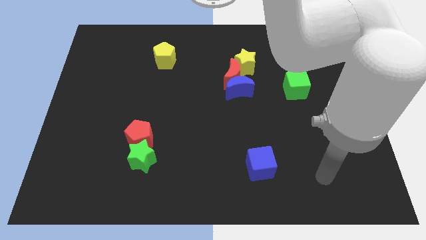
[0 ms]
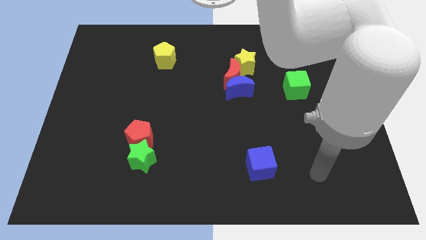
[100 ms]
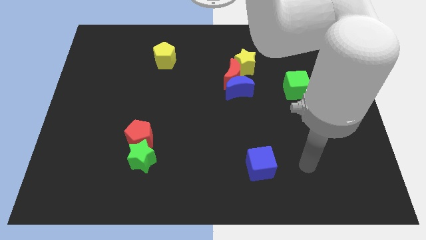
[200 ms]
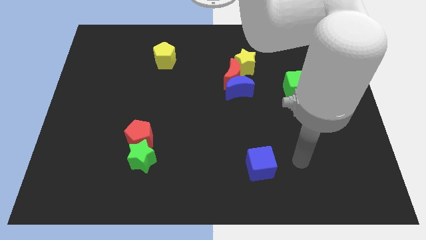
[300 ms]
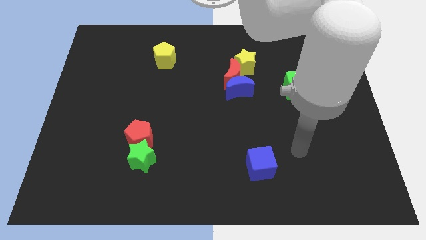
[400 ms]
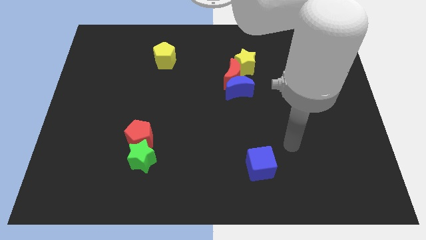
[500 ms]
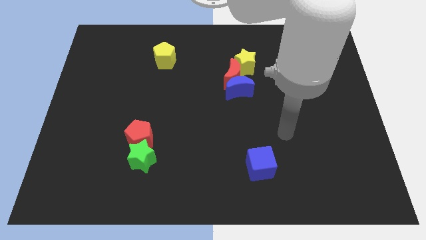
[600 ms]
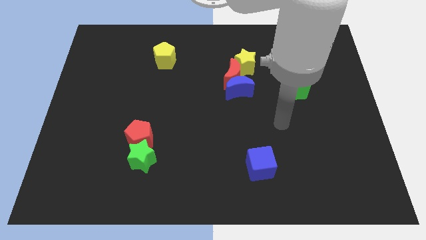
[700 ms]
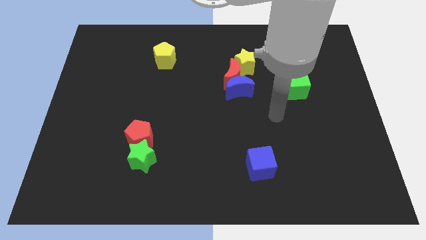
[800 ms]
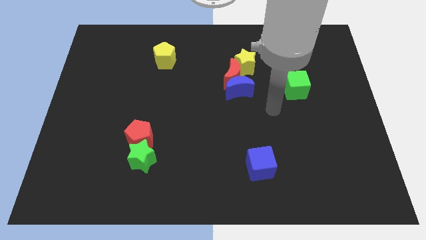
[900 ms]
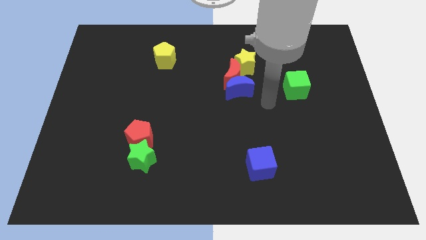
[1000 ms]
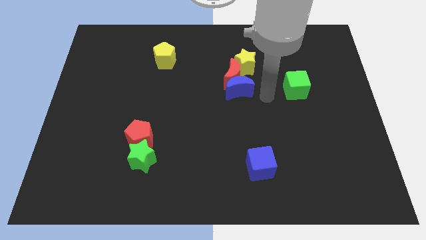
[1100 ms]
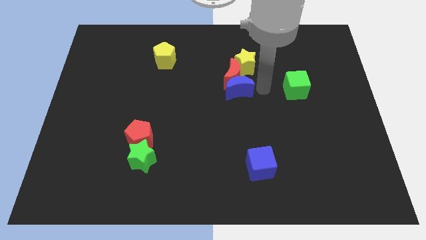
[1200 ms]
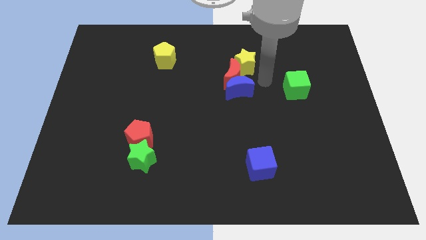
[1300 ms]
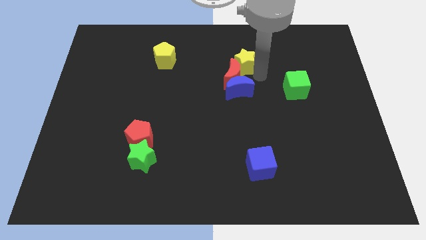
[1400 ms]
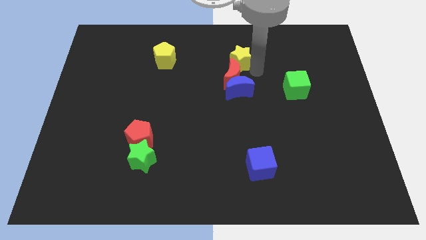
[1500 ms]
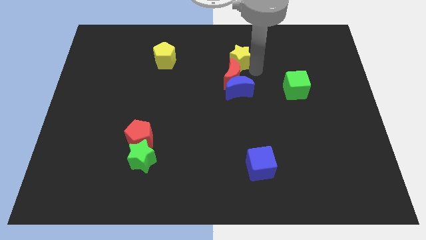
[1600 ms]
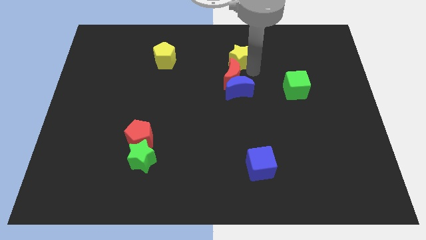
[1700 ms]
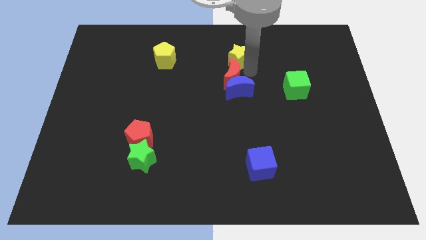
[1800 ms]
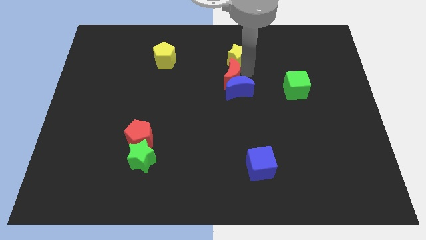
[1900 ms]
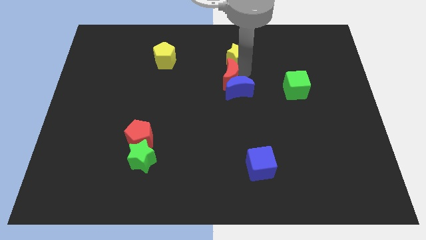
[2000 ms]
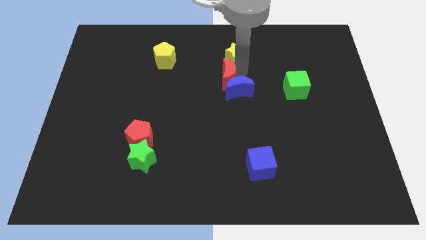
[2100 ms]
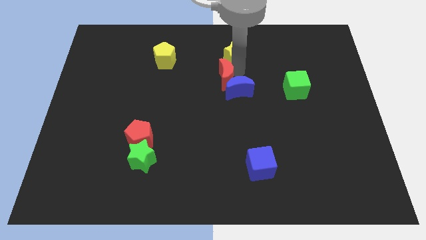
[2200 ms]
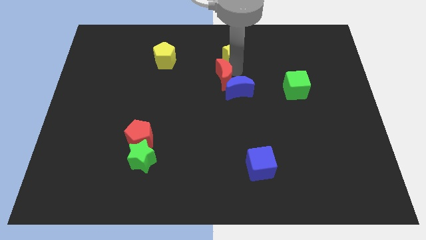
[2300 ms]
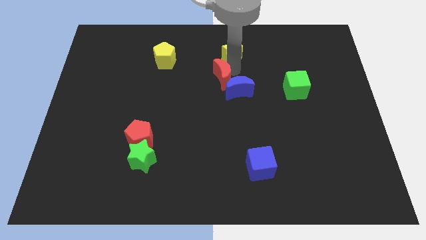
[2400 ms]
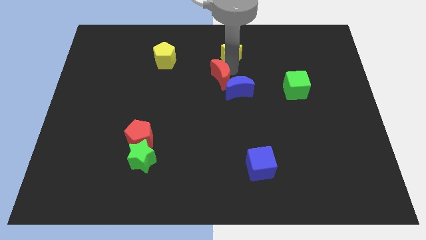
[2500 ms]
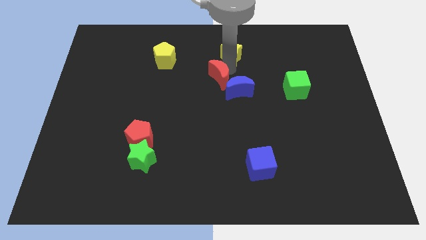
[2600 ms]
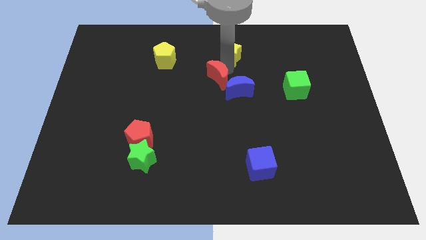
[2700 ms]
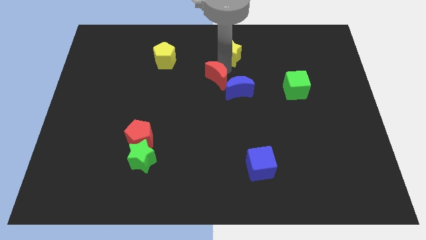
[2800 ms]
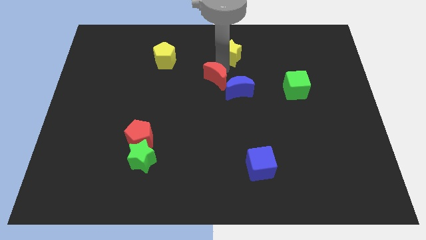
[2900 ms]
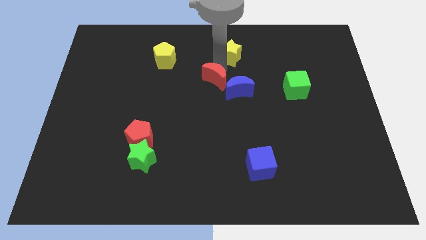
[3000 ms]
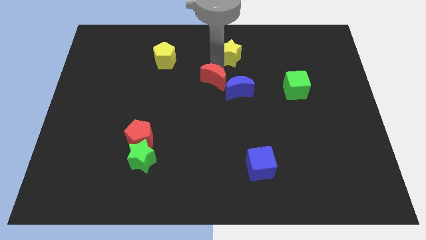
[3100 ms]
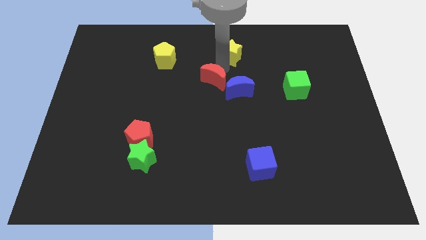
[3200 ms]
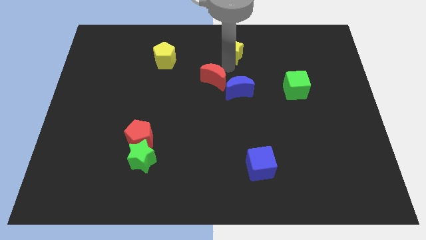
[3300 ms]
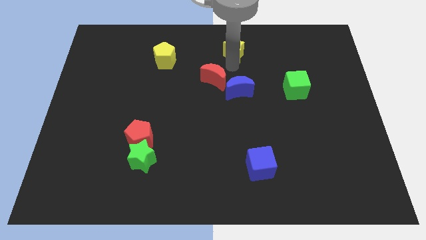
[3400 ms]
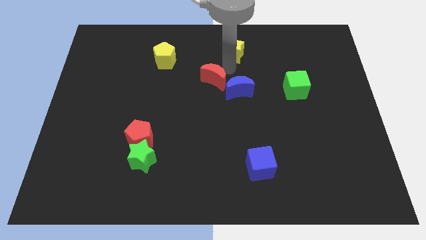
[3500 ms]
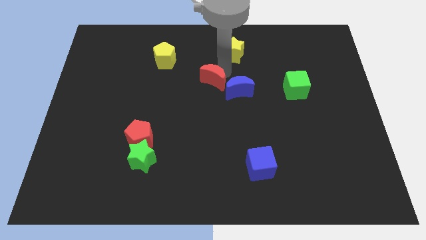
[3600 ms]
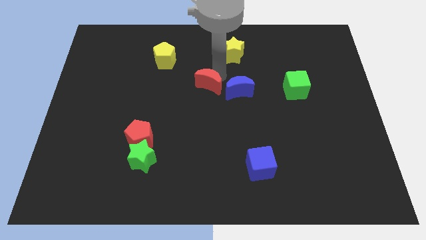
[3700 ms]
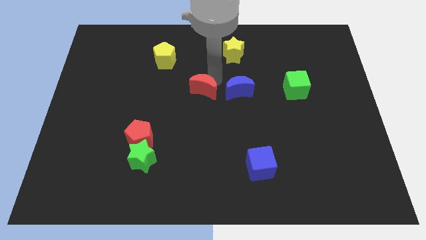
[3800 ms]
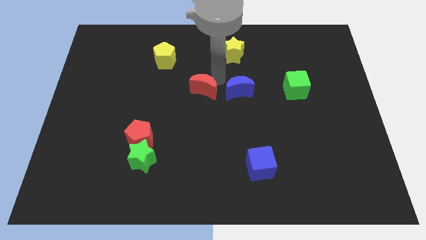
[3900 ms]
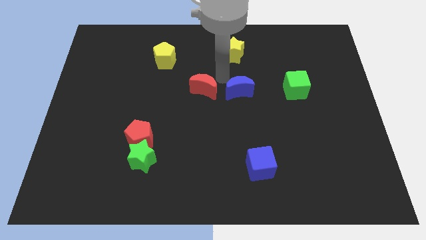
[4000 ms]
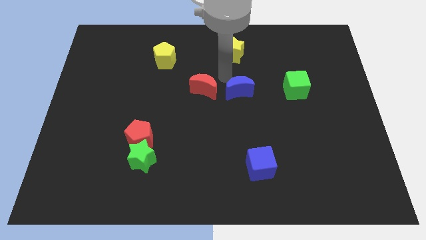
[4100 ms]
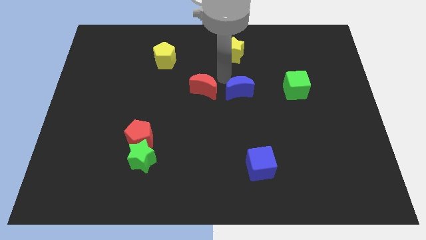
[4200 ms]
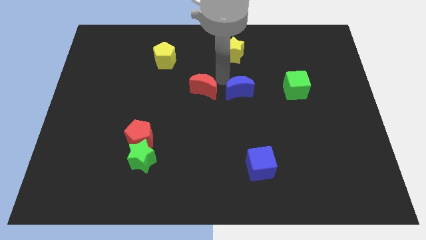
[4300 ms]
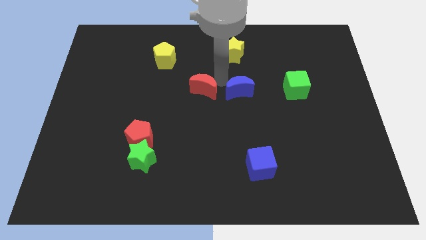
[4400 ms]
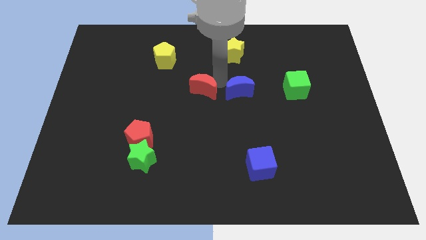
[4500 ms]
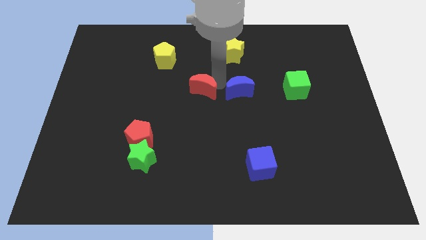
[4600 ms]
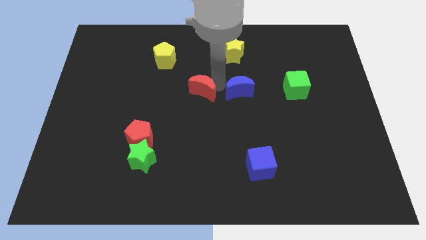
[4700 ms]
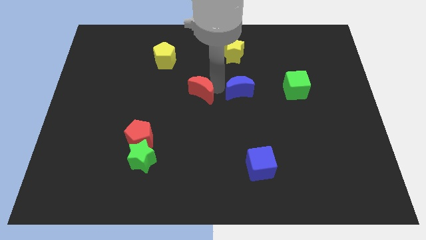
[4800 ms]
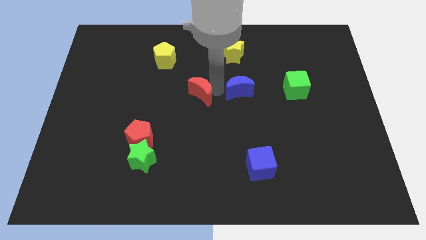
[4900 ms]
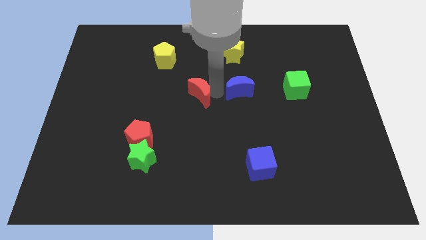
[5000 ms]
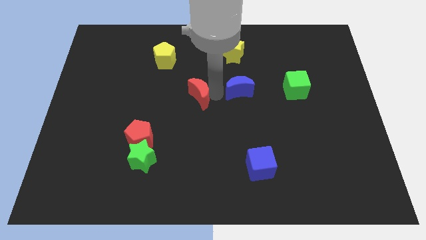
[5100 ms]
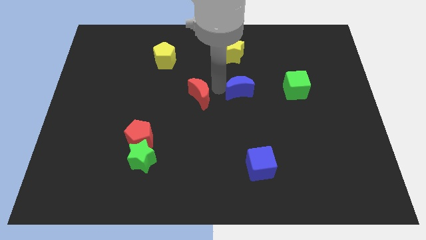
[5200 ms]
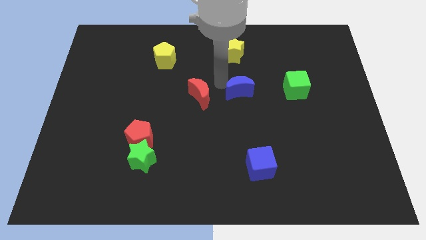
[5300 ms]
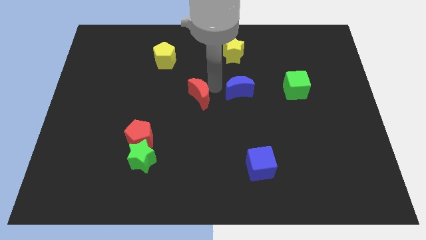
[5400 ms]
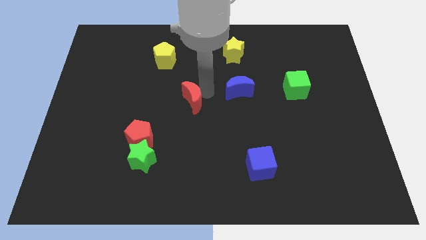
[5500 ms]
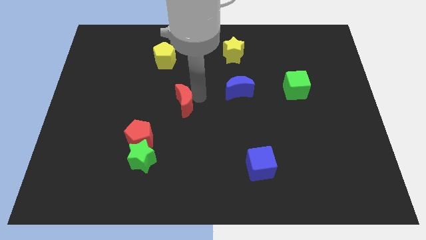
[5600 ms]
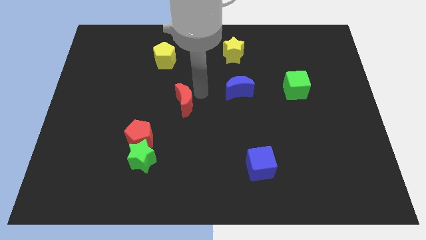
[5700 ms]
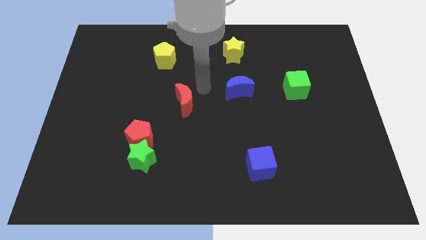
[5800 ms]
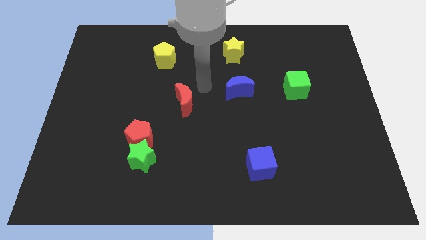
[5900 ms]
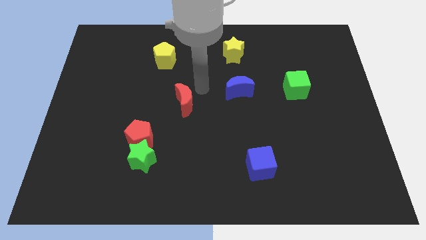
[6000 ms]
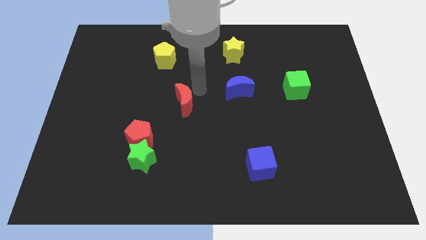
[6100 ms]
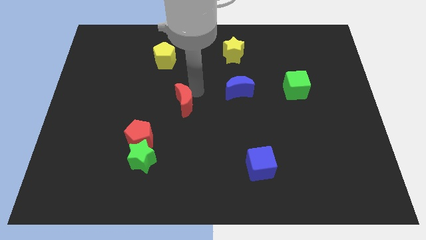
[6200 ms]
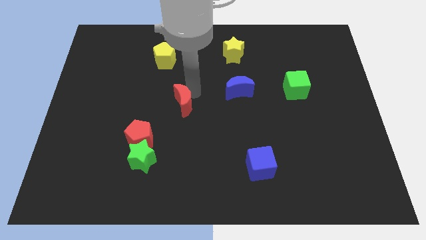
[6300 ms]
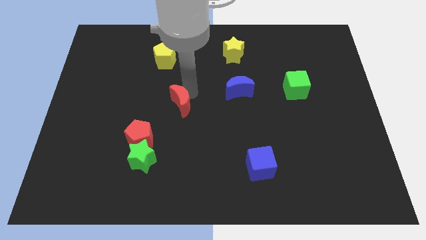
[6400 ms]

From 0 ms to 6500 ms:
slide the red moon to the top right of the red pentagon

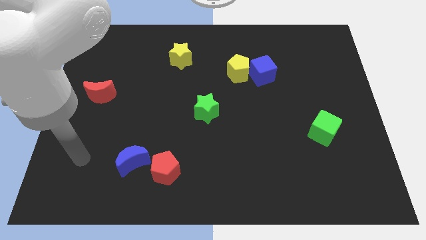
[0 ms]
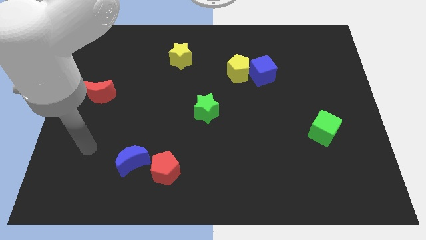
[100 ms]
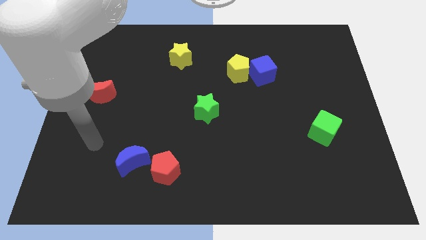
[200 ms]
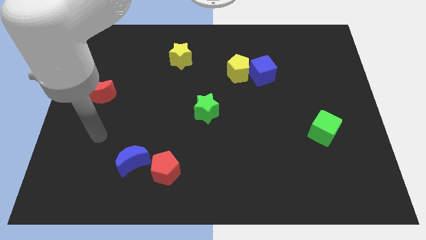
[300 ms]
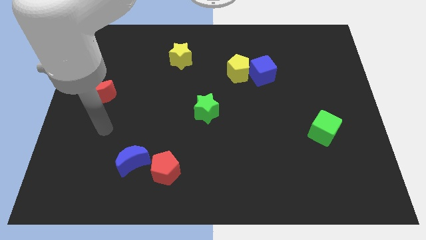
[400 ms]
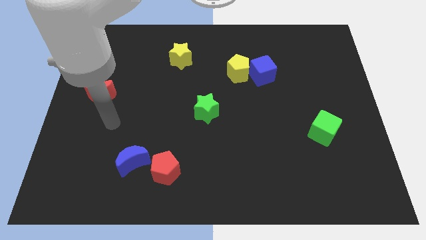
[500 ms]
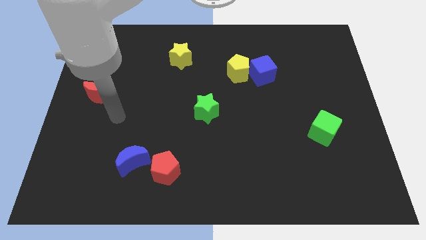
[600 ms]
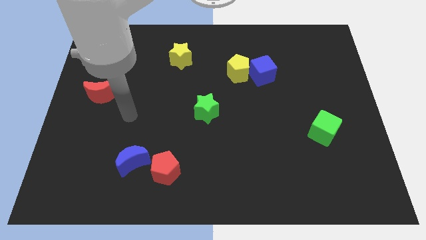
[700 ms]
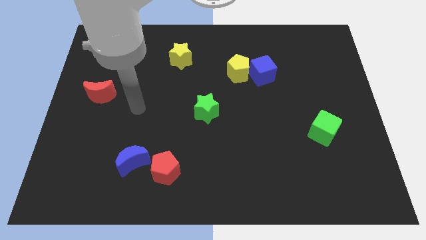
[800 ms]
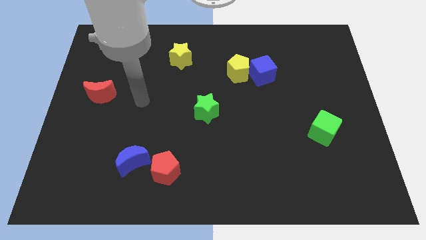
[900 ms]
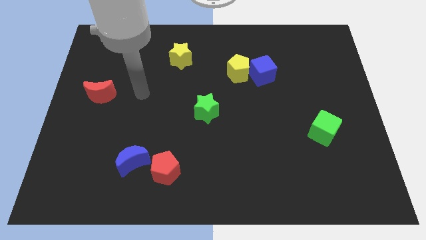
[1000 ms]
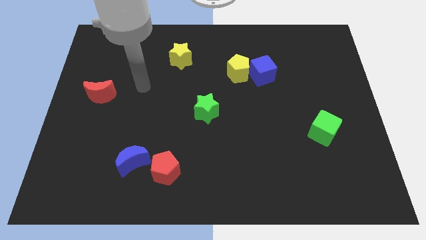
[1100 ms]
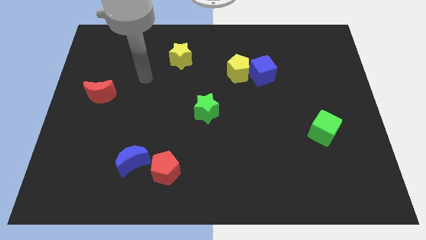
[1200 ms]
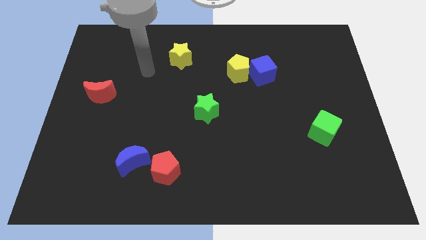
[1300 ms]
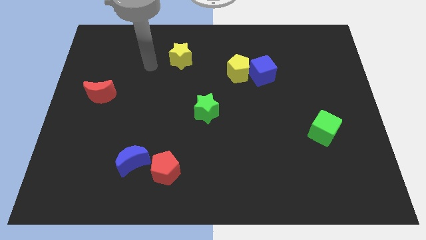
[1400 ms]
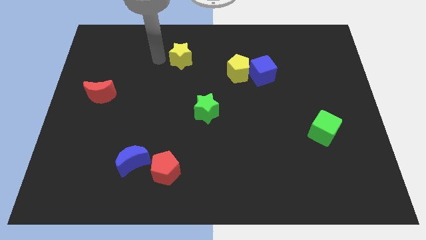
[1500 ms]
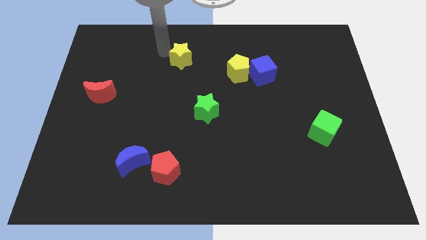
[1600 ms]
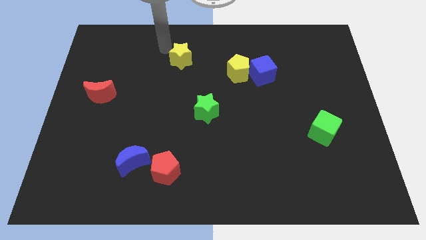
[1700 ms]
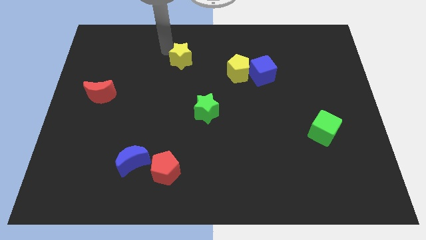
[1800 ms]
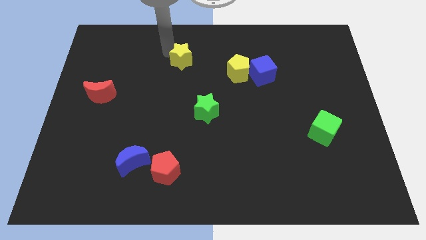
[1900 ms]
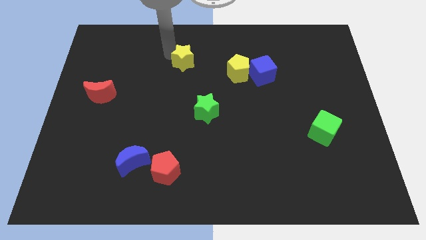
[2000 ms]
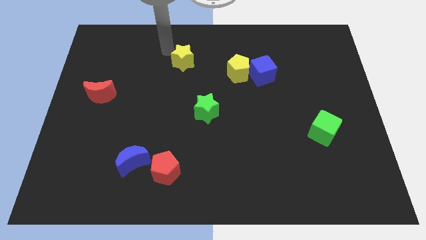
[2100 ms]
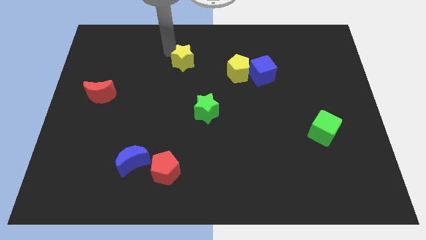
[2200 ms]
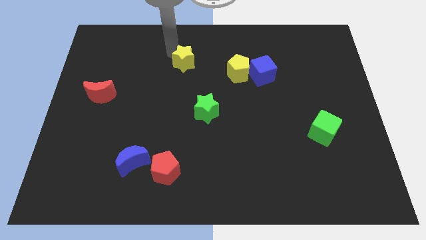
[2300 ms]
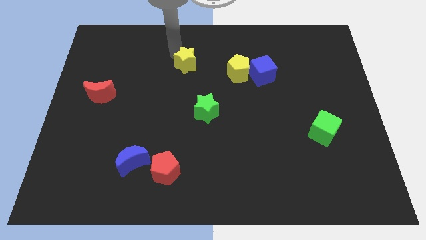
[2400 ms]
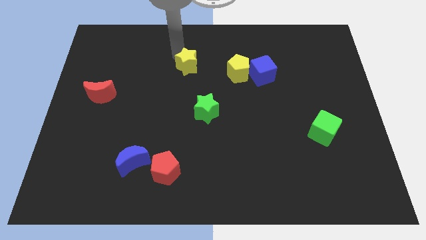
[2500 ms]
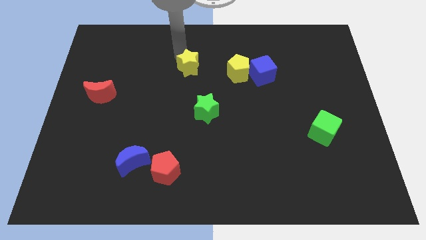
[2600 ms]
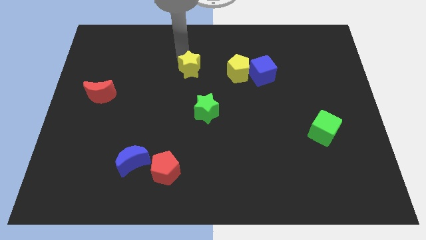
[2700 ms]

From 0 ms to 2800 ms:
push the yellow star above the green star
